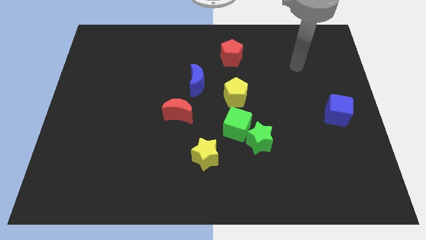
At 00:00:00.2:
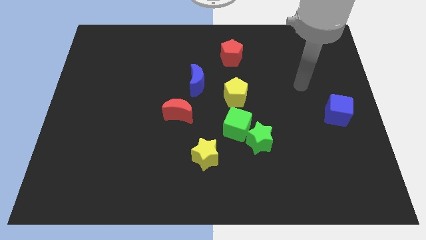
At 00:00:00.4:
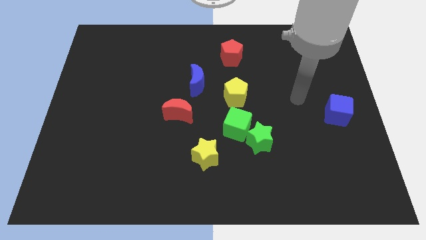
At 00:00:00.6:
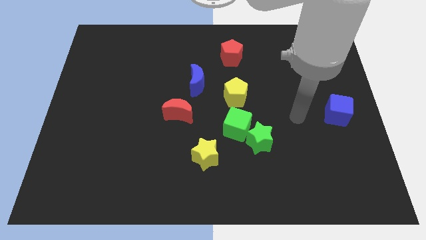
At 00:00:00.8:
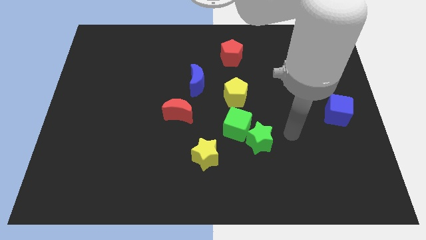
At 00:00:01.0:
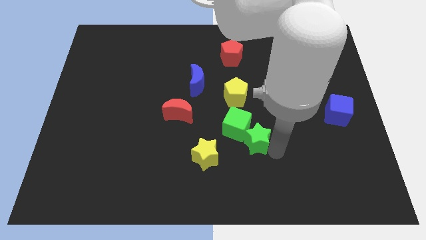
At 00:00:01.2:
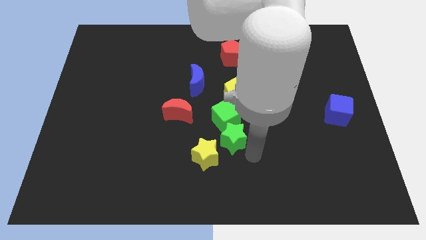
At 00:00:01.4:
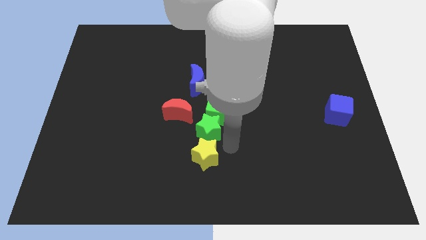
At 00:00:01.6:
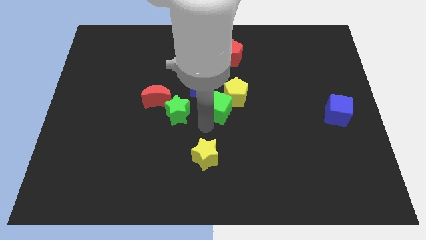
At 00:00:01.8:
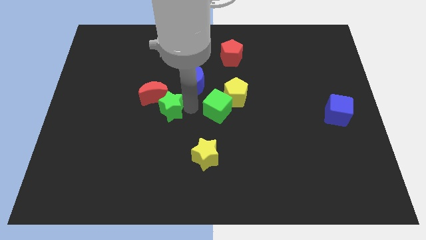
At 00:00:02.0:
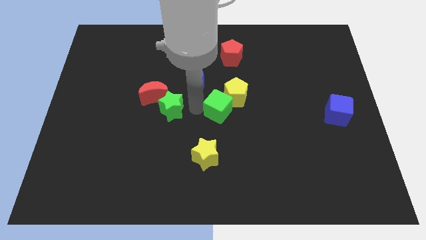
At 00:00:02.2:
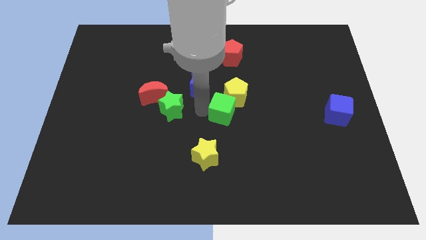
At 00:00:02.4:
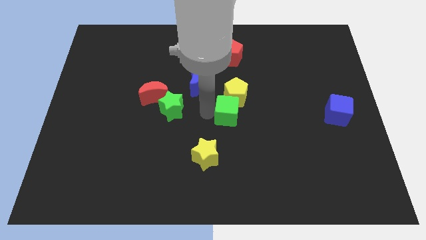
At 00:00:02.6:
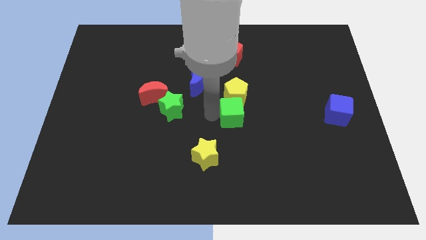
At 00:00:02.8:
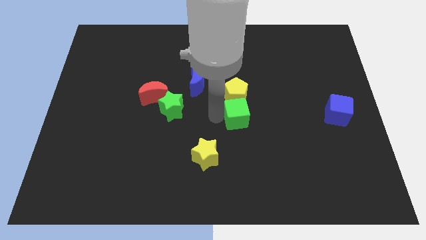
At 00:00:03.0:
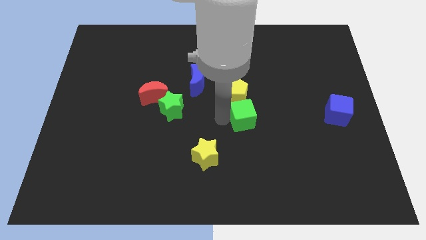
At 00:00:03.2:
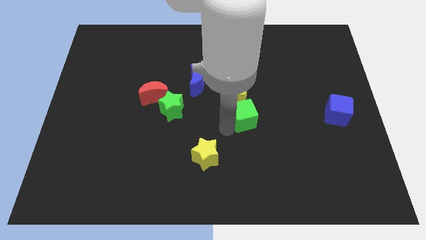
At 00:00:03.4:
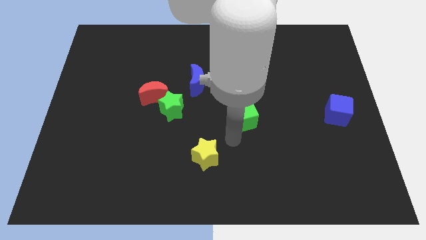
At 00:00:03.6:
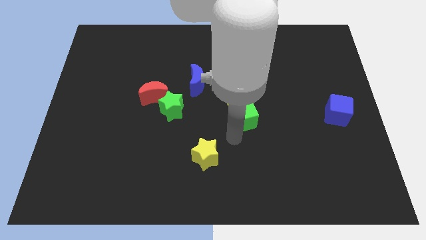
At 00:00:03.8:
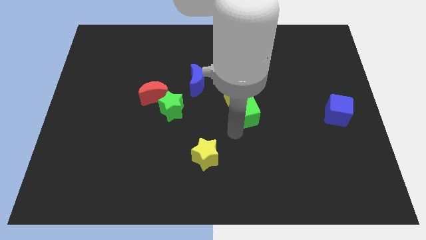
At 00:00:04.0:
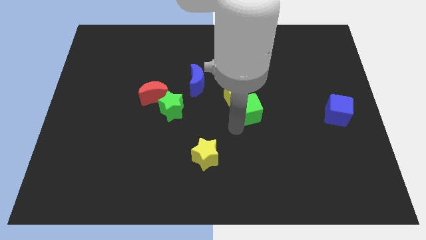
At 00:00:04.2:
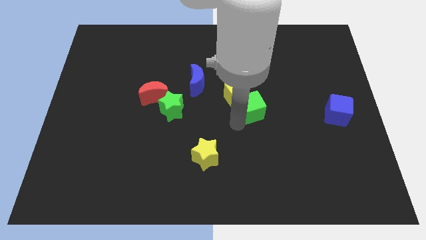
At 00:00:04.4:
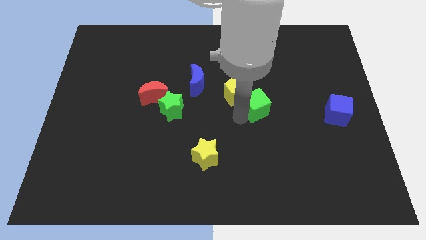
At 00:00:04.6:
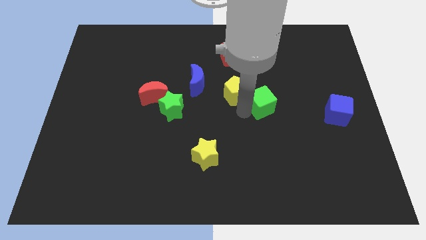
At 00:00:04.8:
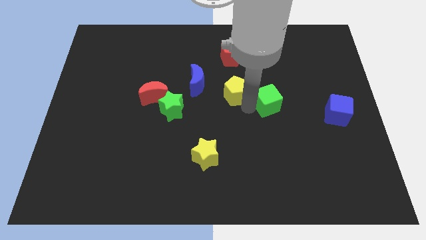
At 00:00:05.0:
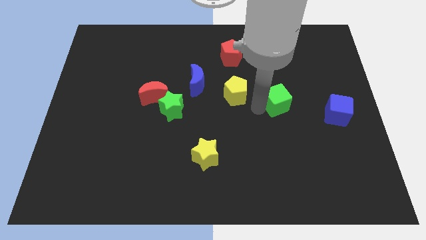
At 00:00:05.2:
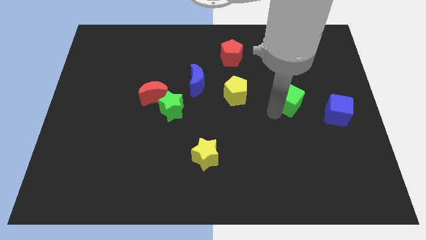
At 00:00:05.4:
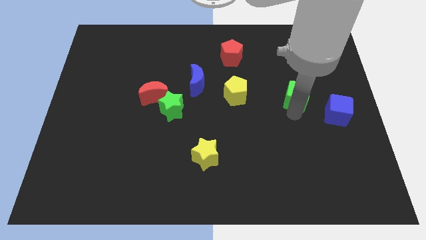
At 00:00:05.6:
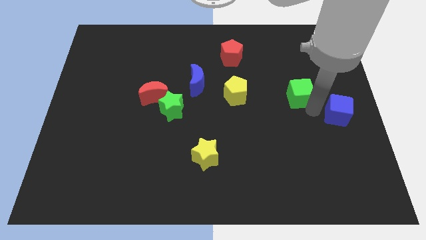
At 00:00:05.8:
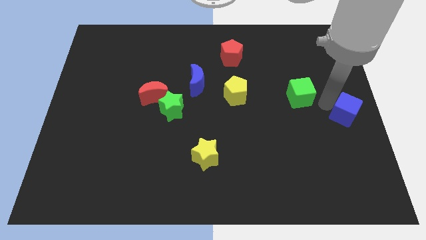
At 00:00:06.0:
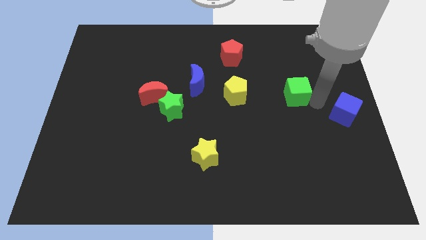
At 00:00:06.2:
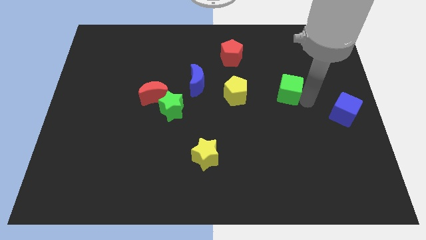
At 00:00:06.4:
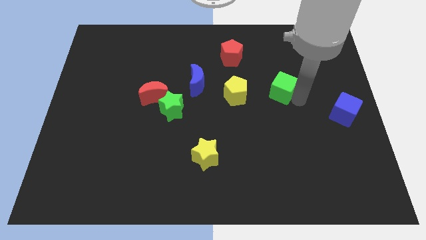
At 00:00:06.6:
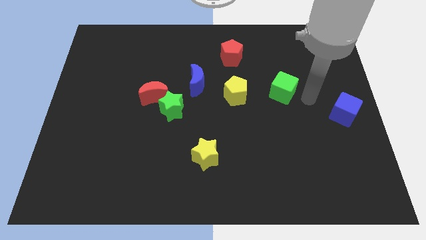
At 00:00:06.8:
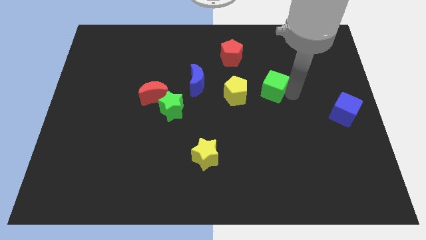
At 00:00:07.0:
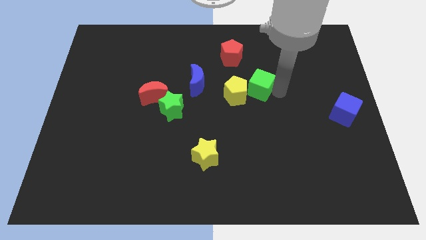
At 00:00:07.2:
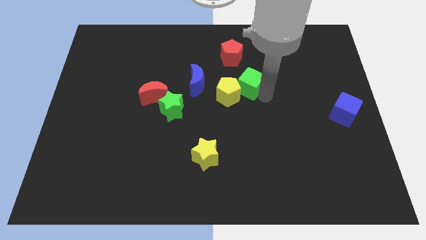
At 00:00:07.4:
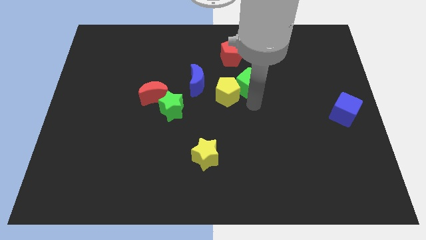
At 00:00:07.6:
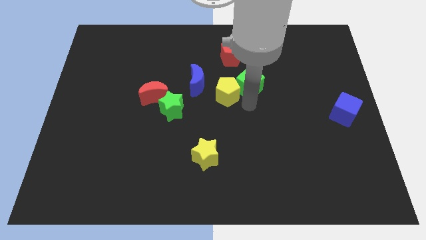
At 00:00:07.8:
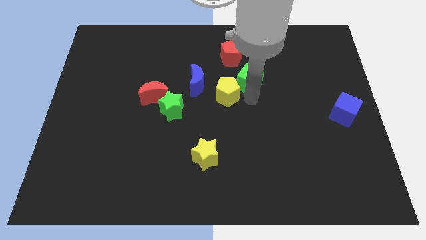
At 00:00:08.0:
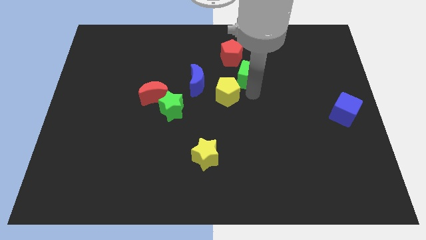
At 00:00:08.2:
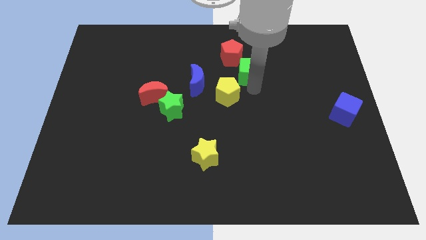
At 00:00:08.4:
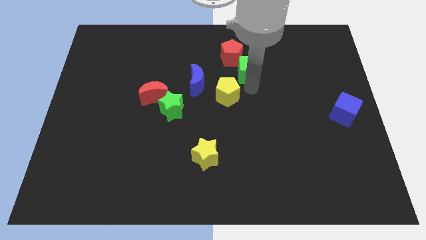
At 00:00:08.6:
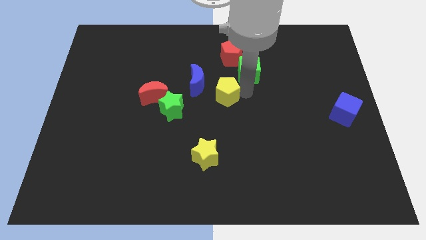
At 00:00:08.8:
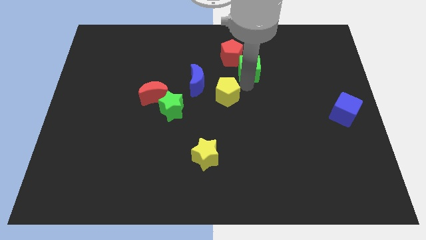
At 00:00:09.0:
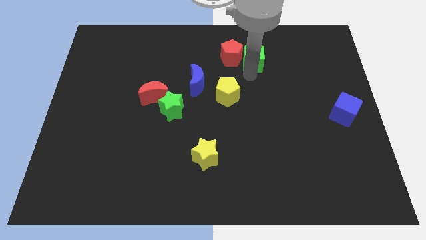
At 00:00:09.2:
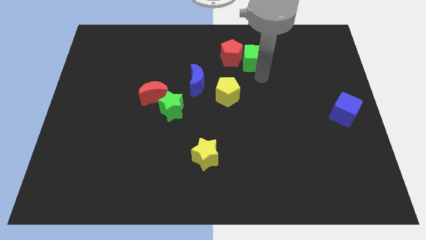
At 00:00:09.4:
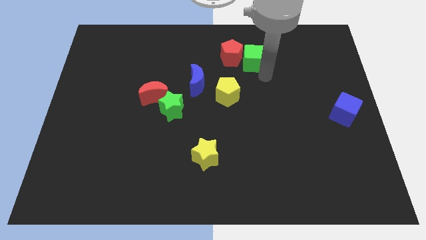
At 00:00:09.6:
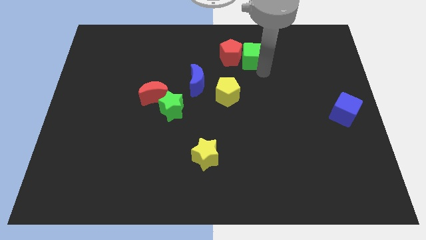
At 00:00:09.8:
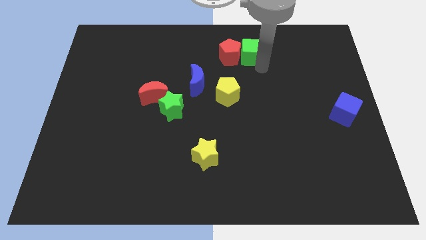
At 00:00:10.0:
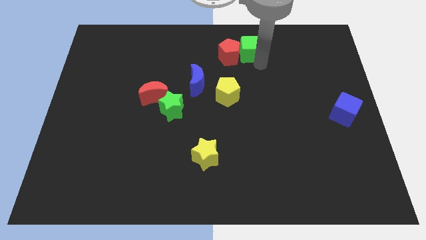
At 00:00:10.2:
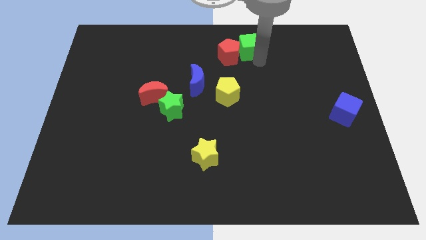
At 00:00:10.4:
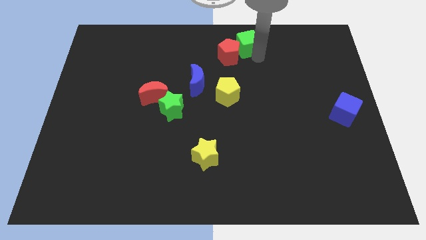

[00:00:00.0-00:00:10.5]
push the green cube to the towards your base
